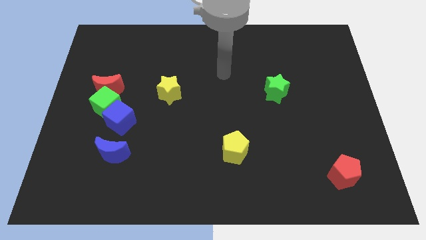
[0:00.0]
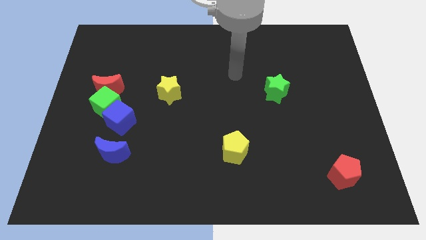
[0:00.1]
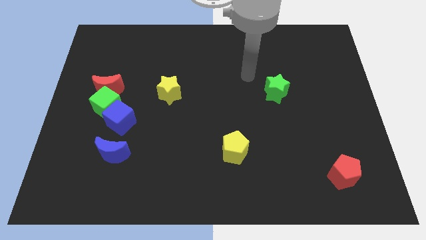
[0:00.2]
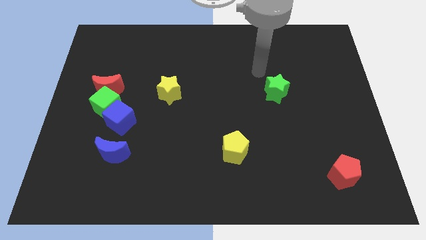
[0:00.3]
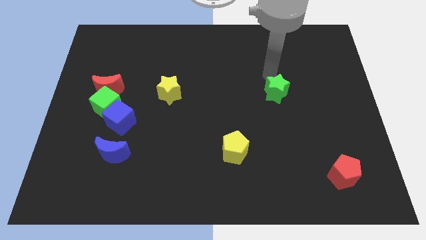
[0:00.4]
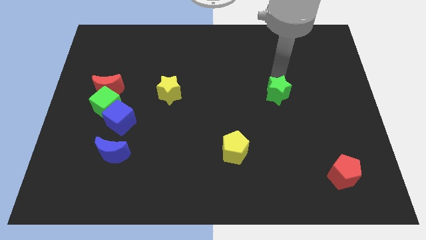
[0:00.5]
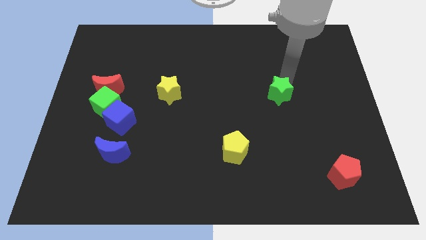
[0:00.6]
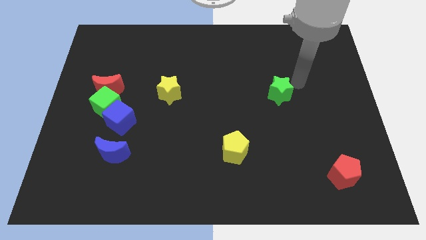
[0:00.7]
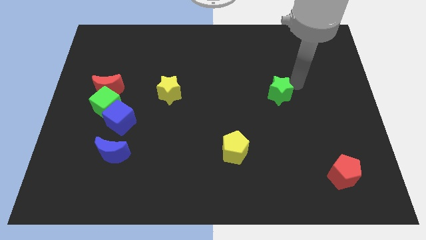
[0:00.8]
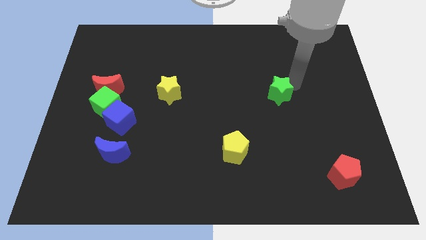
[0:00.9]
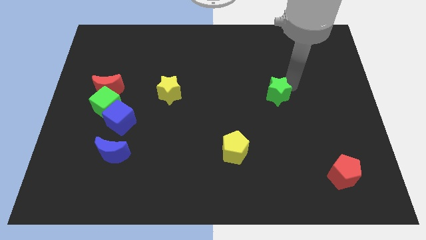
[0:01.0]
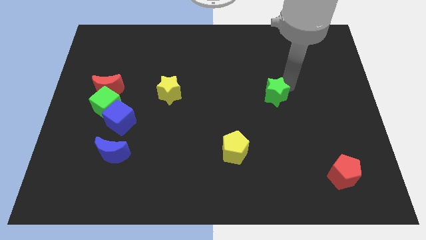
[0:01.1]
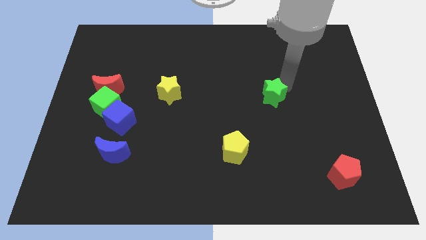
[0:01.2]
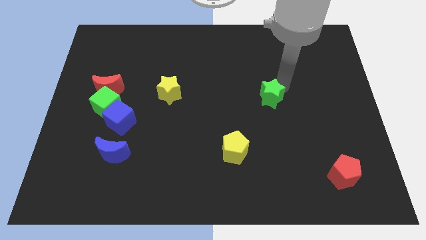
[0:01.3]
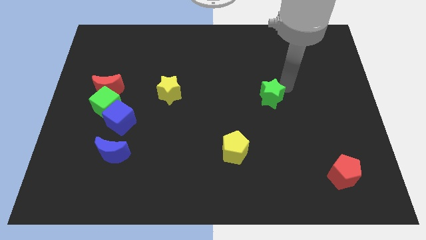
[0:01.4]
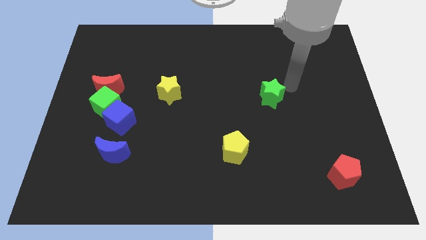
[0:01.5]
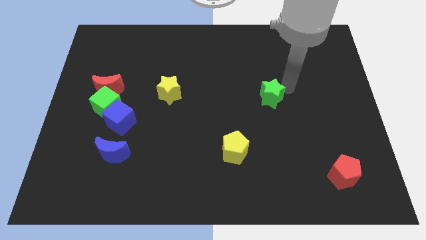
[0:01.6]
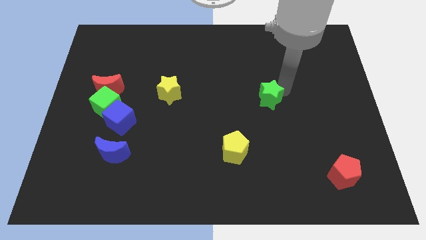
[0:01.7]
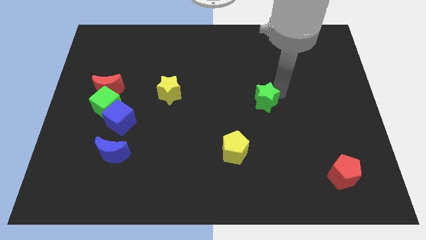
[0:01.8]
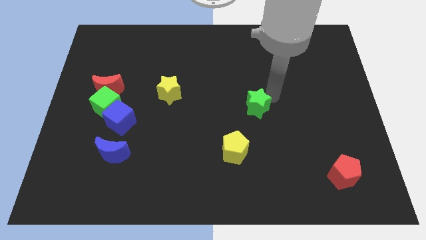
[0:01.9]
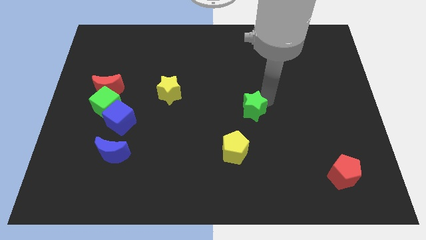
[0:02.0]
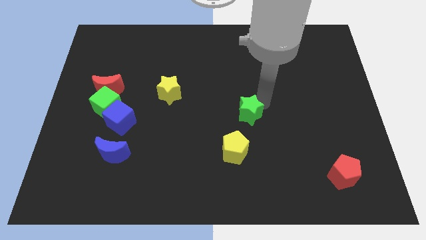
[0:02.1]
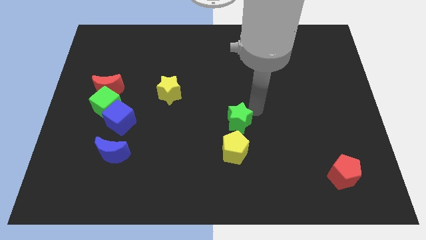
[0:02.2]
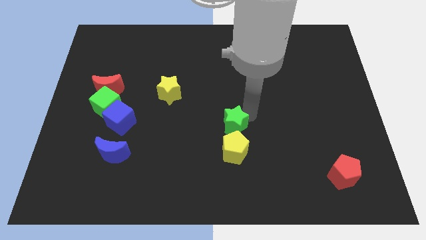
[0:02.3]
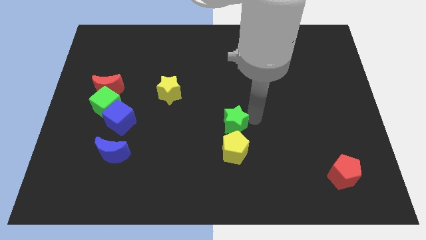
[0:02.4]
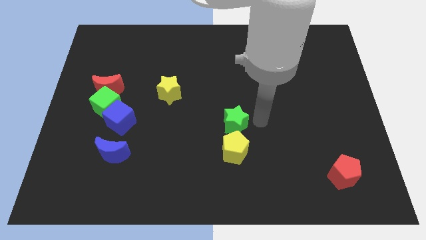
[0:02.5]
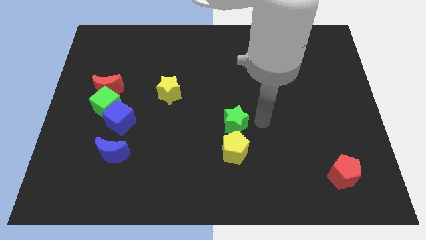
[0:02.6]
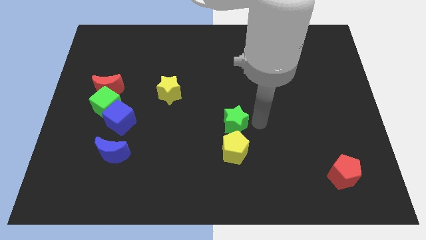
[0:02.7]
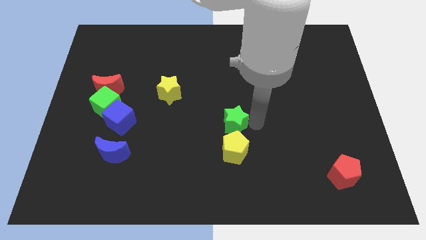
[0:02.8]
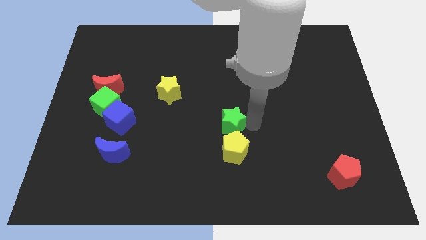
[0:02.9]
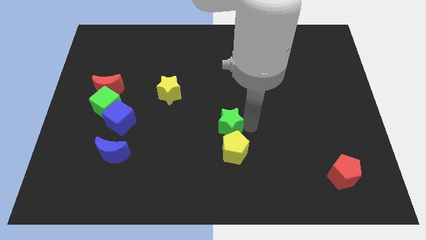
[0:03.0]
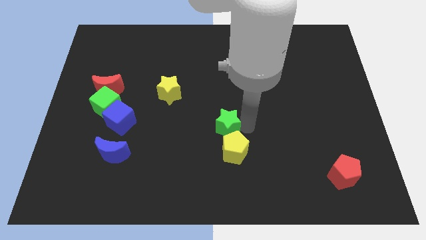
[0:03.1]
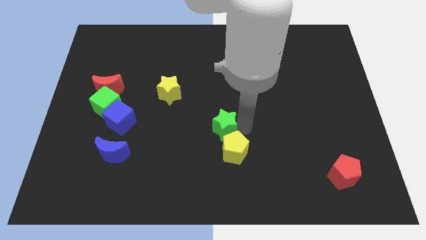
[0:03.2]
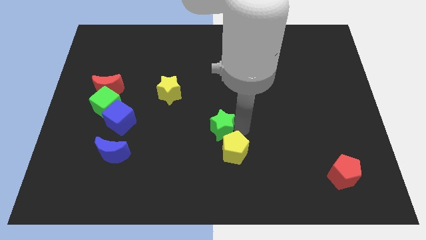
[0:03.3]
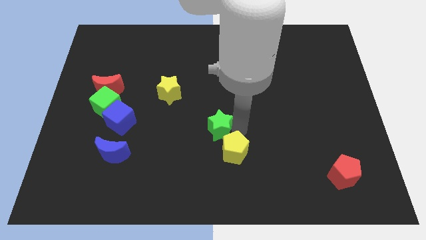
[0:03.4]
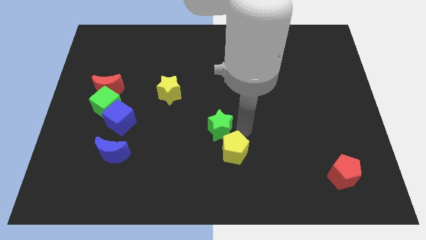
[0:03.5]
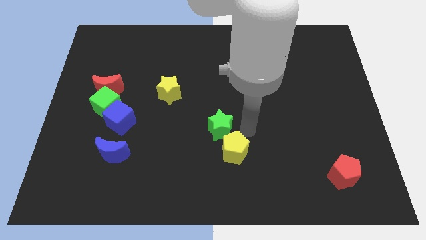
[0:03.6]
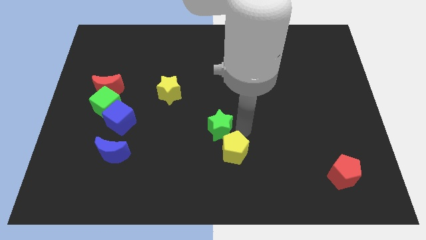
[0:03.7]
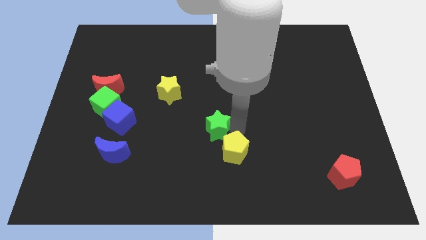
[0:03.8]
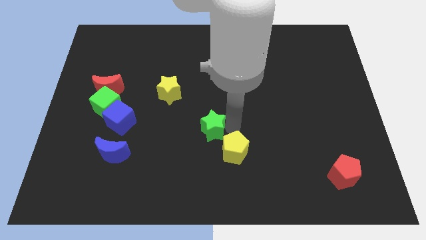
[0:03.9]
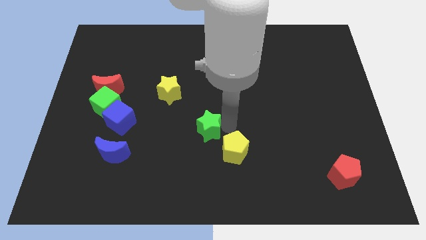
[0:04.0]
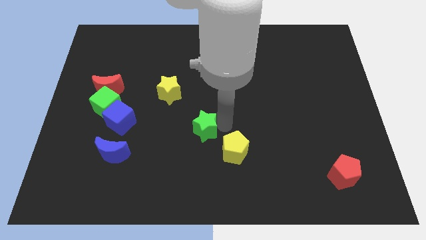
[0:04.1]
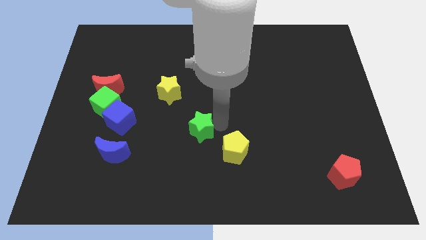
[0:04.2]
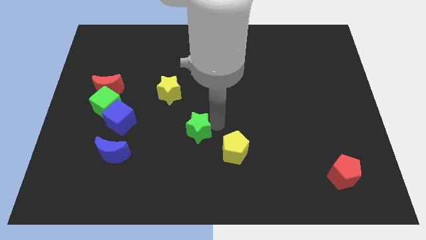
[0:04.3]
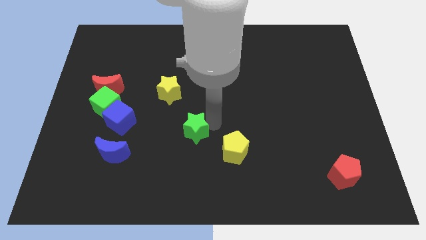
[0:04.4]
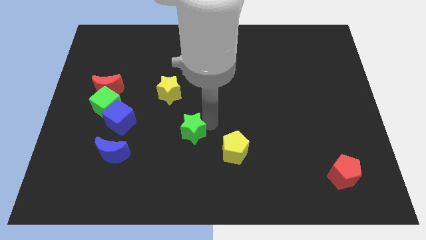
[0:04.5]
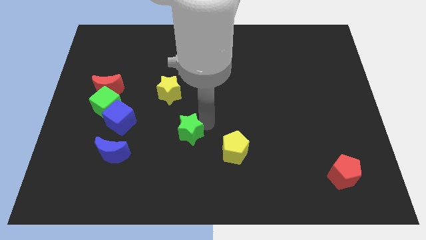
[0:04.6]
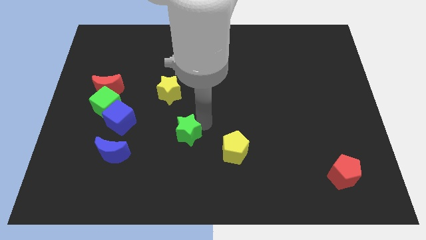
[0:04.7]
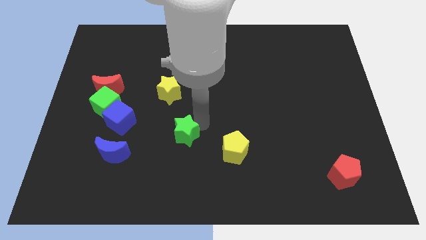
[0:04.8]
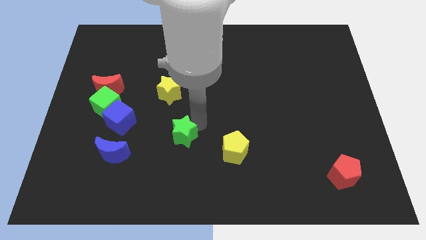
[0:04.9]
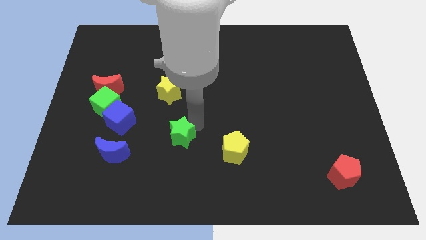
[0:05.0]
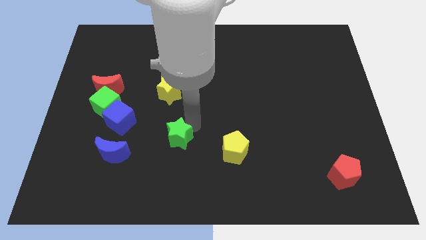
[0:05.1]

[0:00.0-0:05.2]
slide the green star to the right side of the blue moon

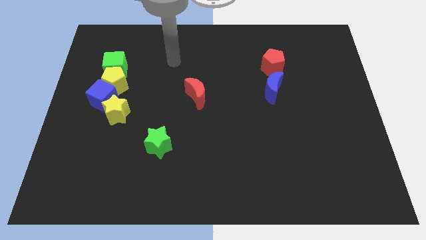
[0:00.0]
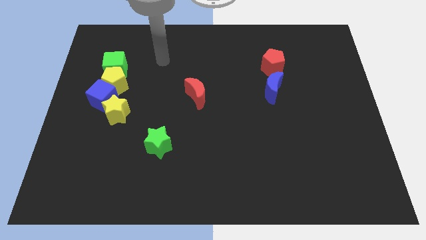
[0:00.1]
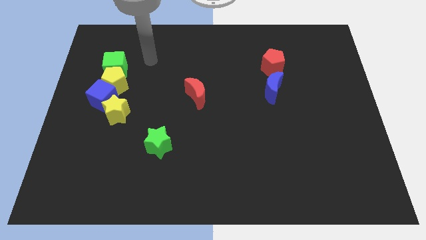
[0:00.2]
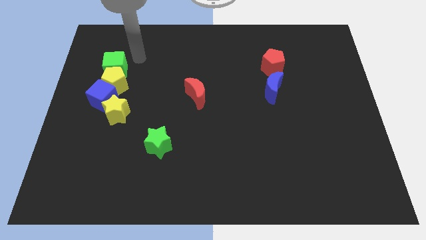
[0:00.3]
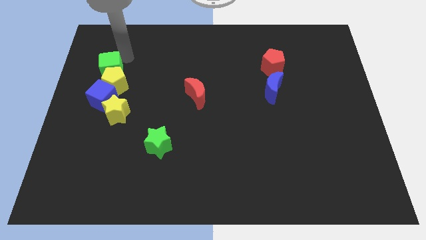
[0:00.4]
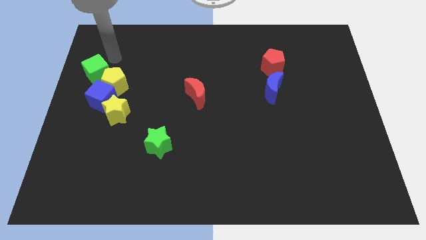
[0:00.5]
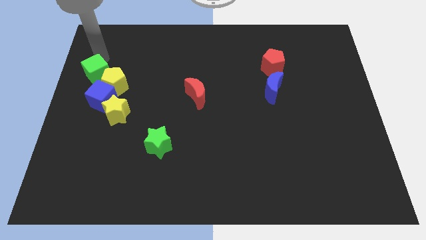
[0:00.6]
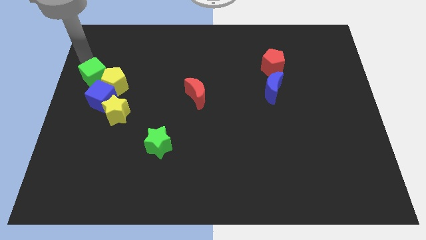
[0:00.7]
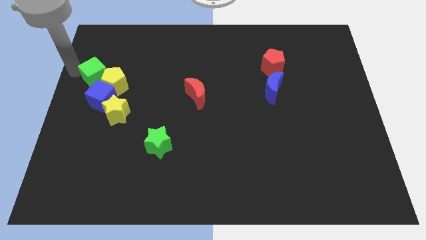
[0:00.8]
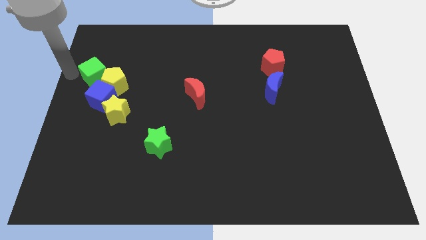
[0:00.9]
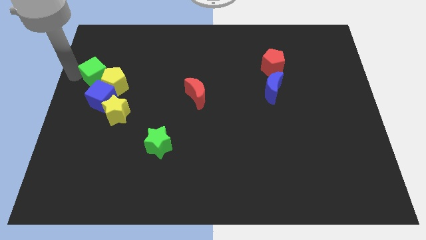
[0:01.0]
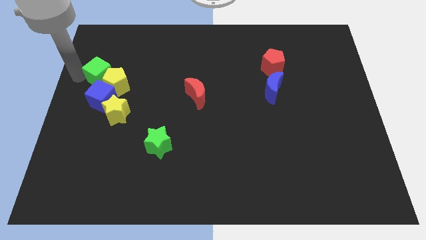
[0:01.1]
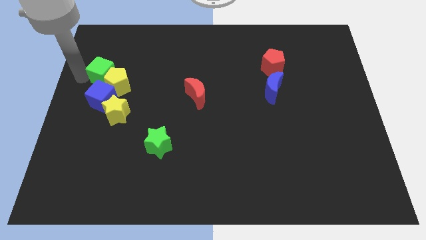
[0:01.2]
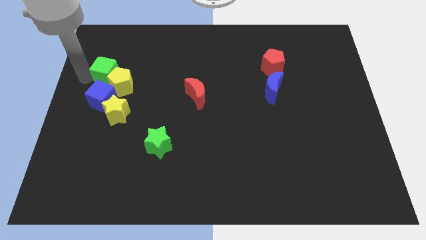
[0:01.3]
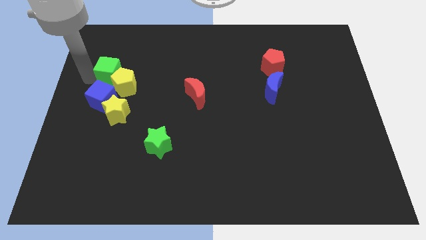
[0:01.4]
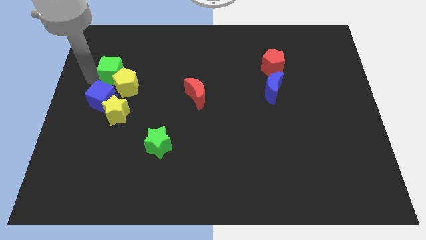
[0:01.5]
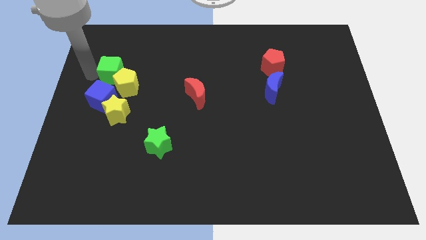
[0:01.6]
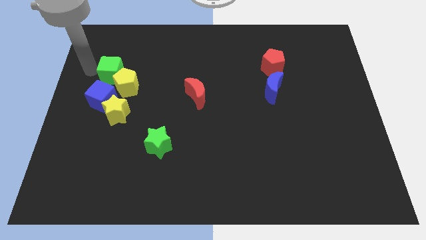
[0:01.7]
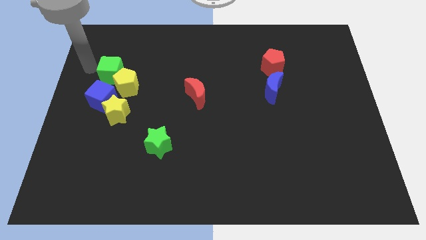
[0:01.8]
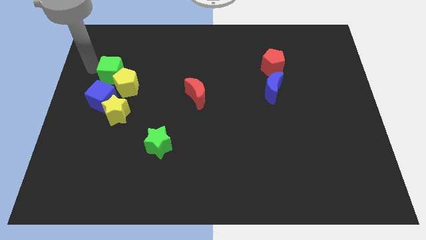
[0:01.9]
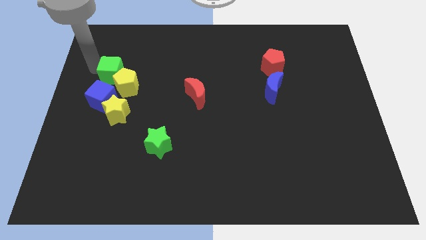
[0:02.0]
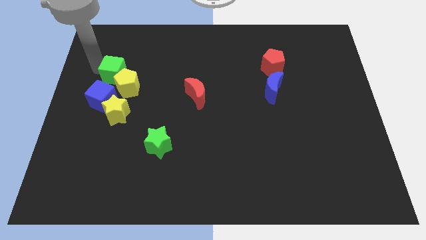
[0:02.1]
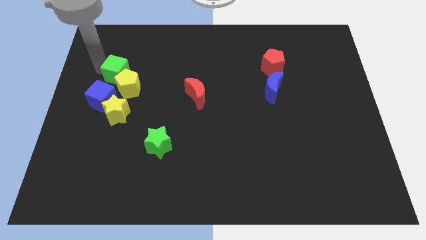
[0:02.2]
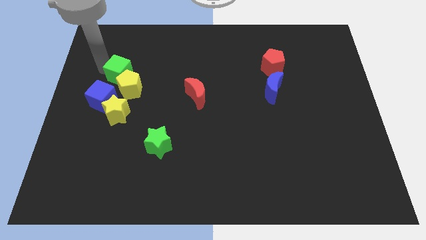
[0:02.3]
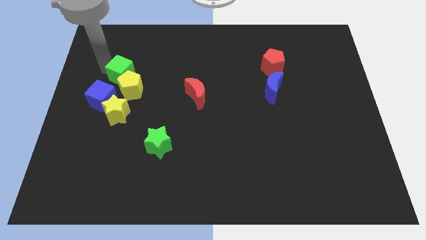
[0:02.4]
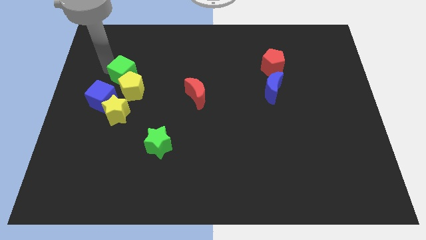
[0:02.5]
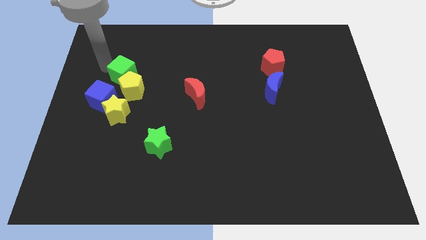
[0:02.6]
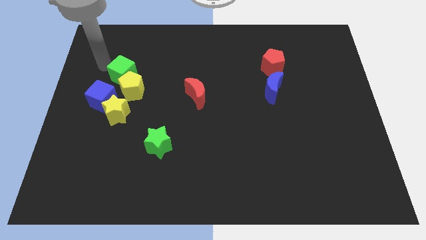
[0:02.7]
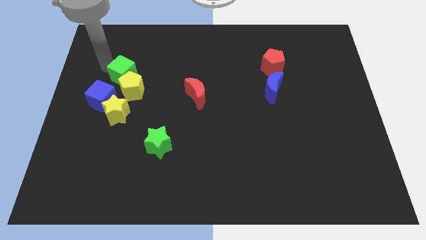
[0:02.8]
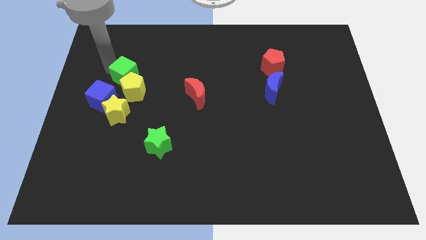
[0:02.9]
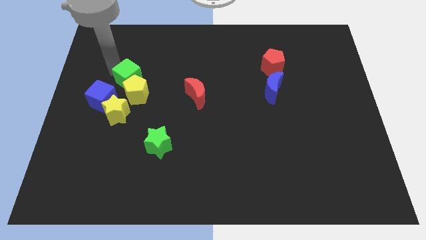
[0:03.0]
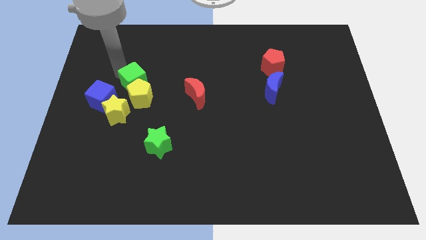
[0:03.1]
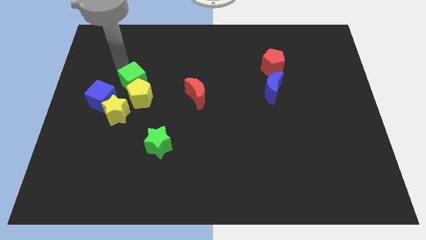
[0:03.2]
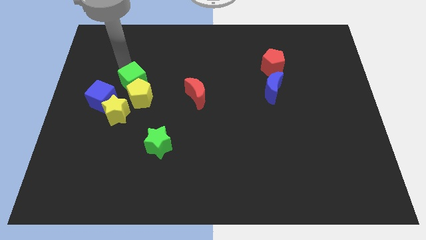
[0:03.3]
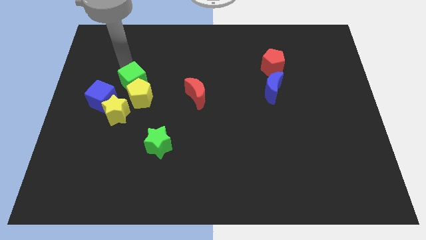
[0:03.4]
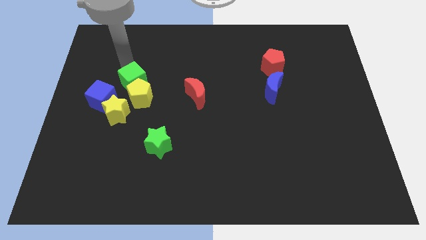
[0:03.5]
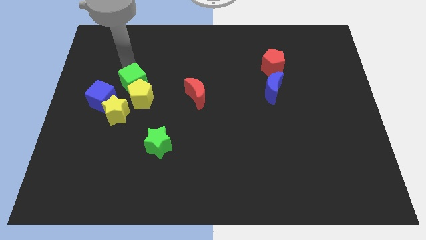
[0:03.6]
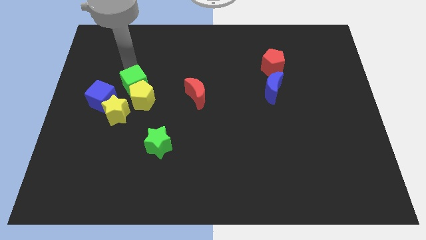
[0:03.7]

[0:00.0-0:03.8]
move the green cube to the top right of the yellow star
